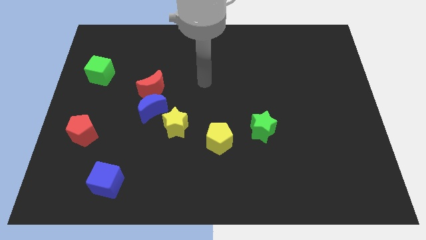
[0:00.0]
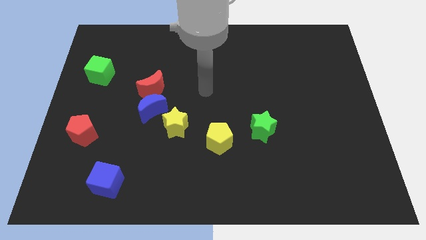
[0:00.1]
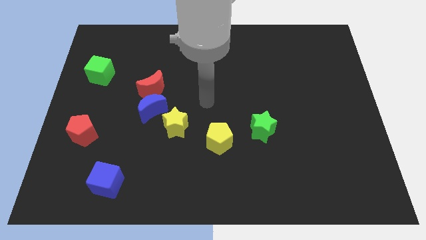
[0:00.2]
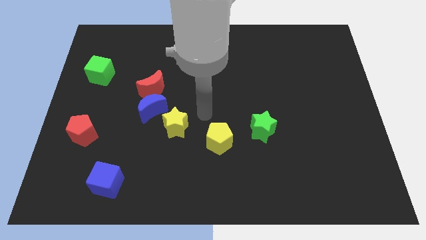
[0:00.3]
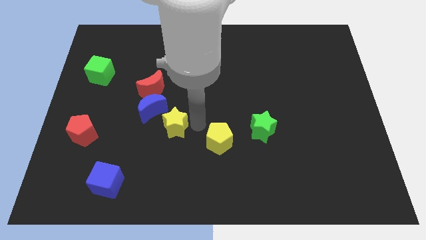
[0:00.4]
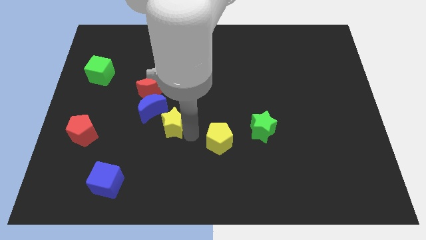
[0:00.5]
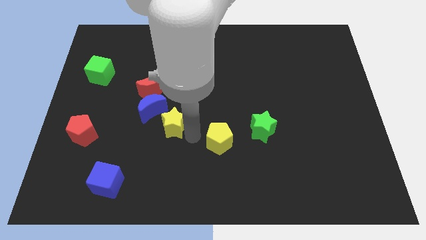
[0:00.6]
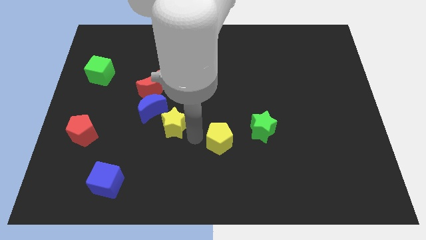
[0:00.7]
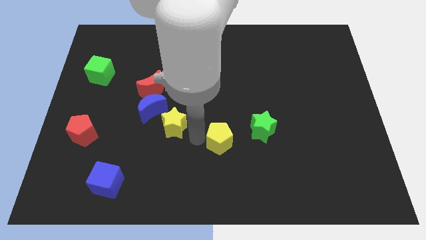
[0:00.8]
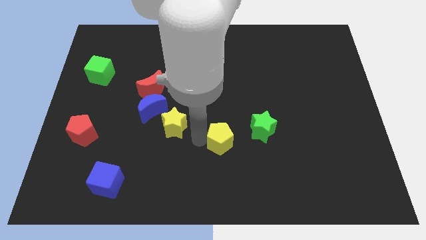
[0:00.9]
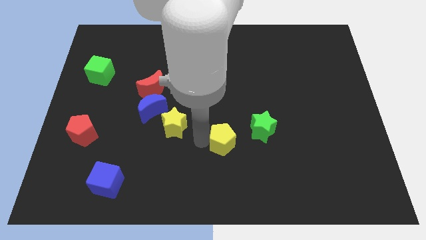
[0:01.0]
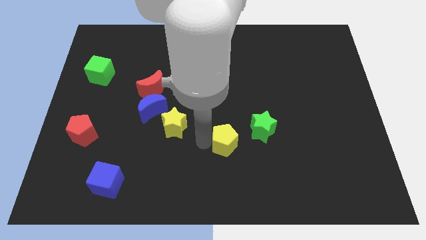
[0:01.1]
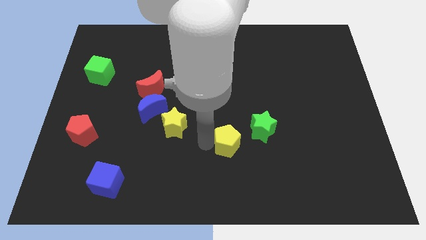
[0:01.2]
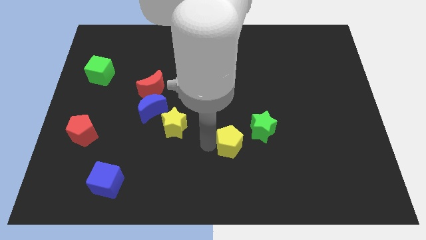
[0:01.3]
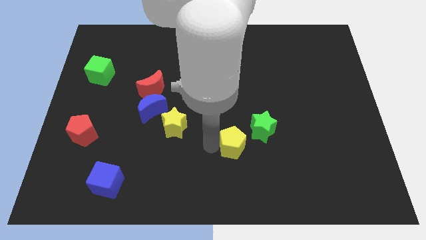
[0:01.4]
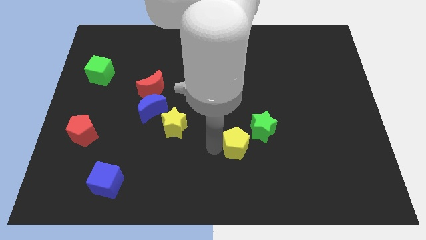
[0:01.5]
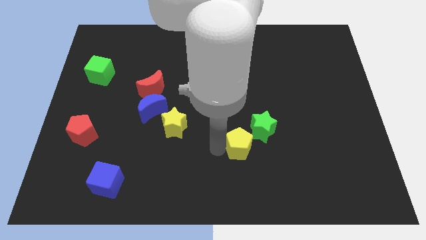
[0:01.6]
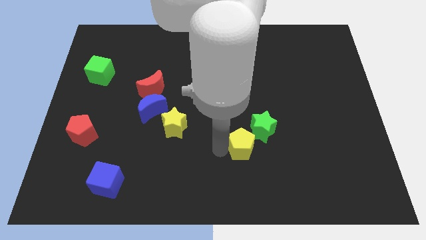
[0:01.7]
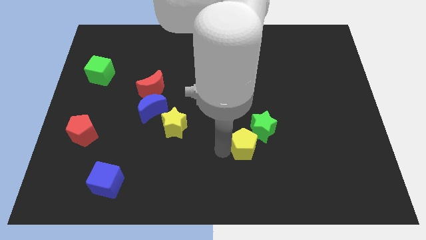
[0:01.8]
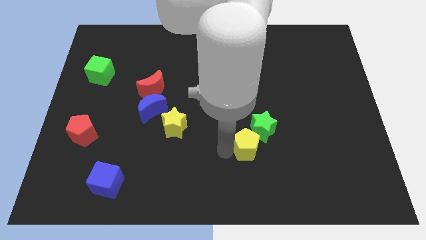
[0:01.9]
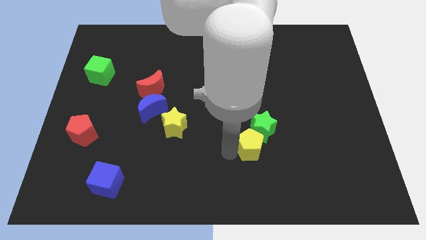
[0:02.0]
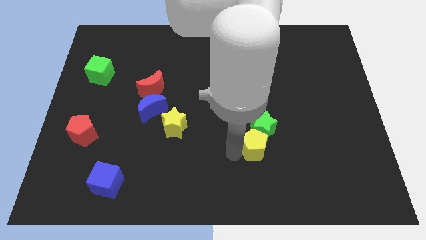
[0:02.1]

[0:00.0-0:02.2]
slightly move the yellow pentagon to the right

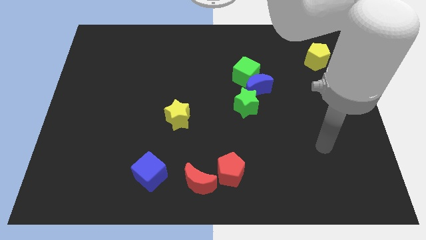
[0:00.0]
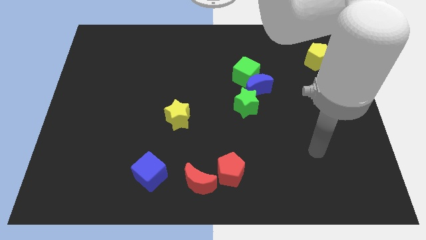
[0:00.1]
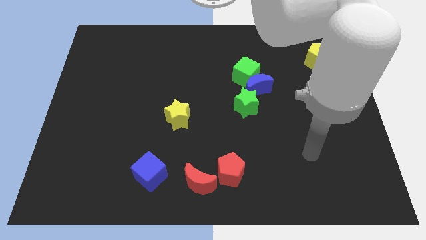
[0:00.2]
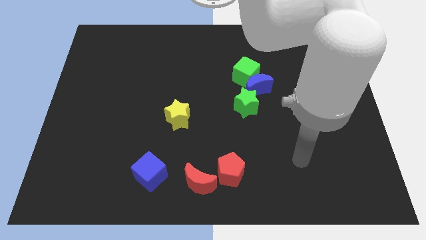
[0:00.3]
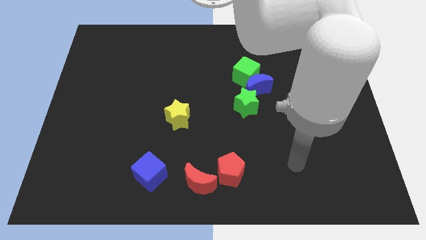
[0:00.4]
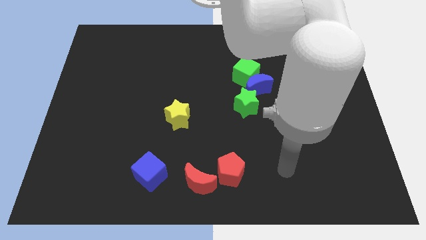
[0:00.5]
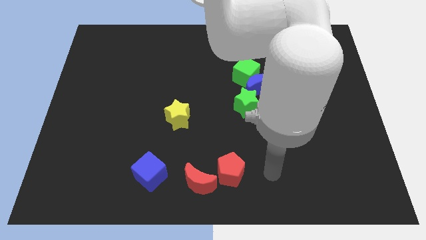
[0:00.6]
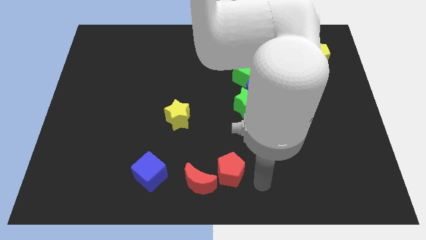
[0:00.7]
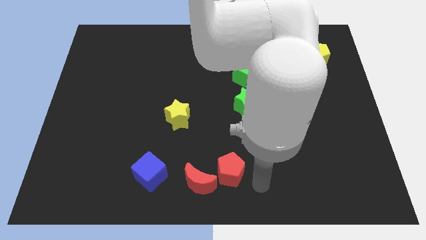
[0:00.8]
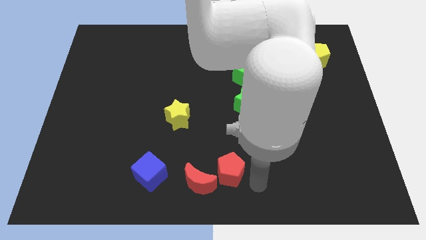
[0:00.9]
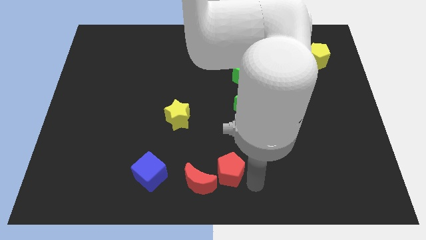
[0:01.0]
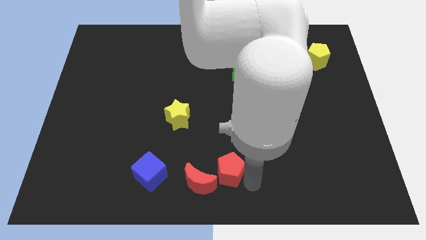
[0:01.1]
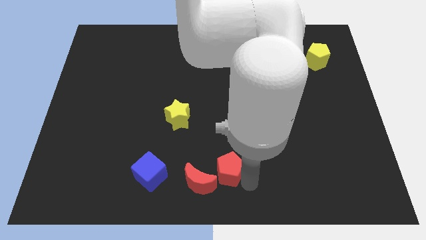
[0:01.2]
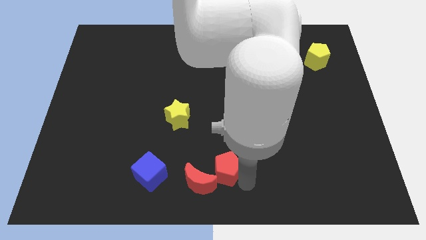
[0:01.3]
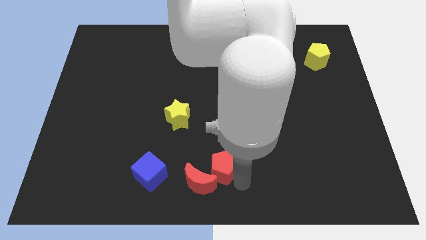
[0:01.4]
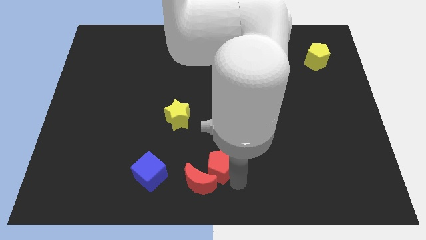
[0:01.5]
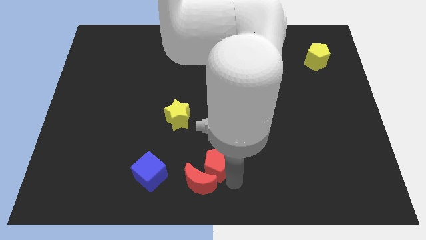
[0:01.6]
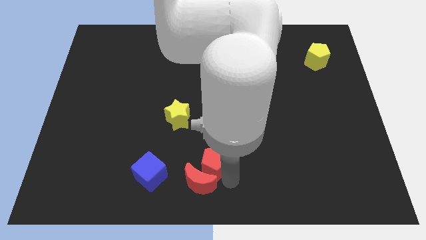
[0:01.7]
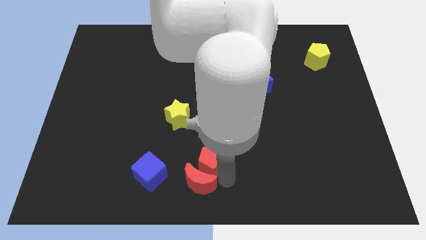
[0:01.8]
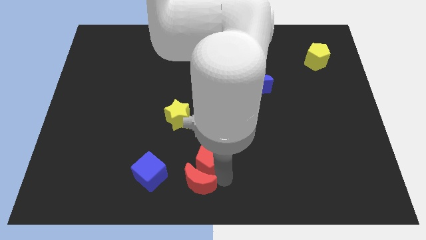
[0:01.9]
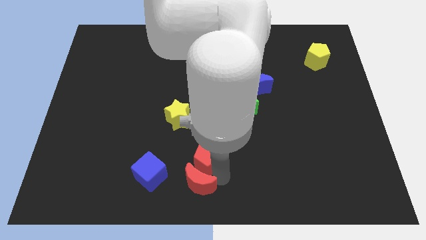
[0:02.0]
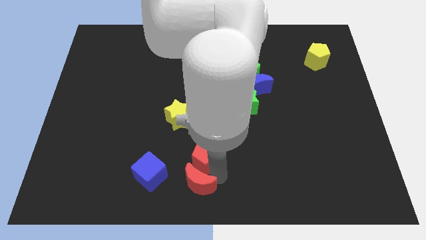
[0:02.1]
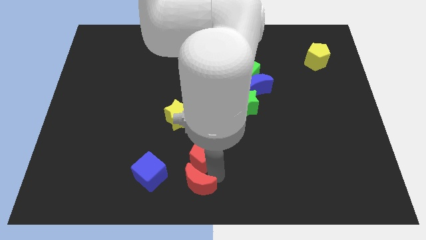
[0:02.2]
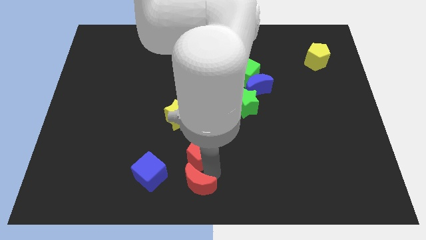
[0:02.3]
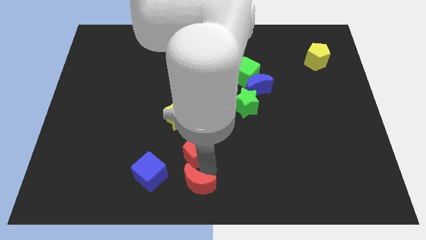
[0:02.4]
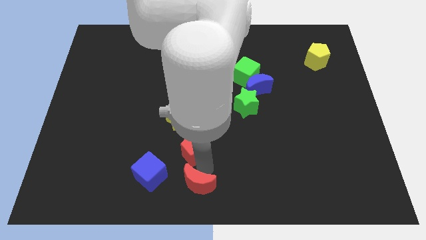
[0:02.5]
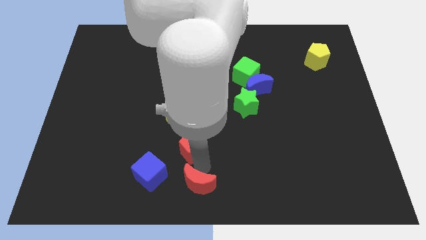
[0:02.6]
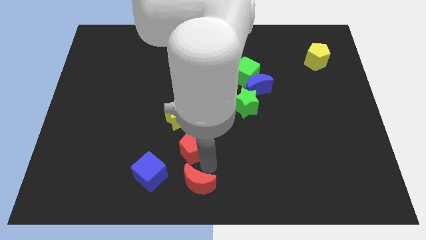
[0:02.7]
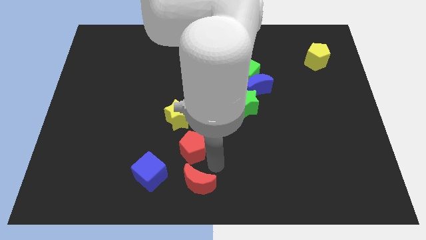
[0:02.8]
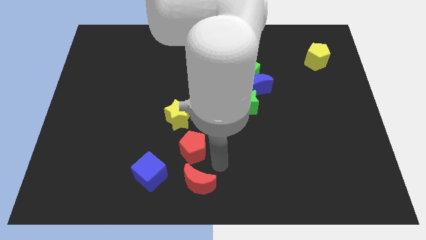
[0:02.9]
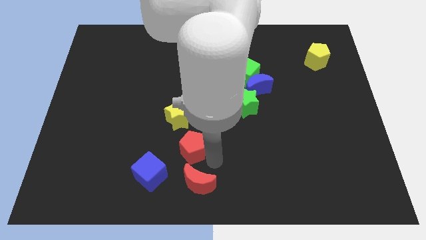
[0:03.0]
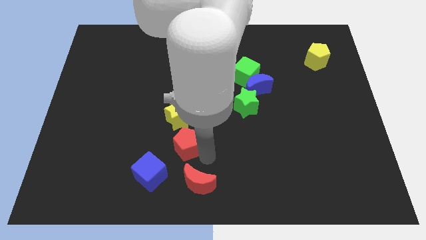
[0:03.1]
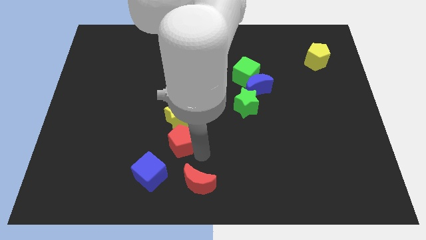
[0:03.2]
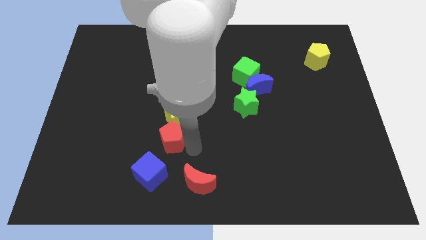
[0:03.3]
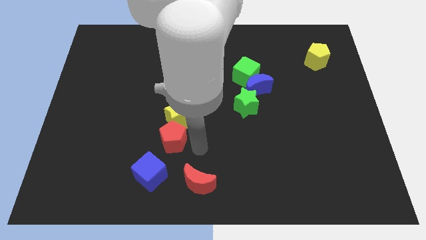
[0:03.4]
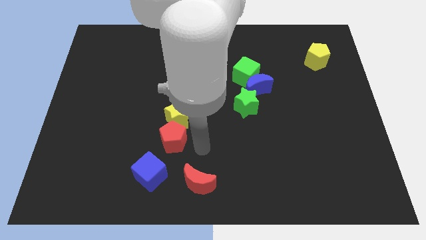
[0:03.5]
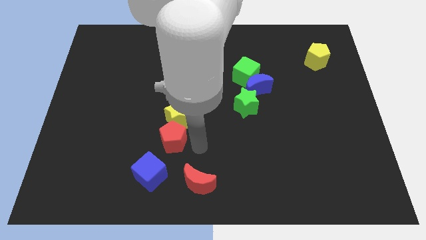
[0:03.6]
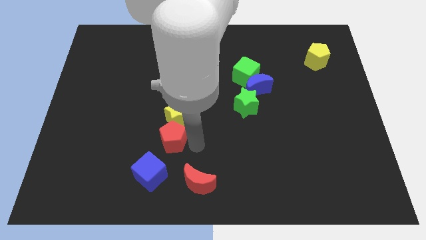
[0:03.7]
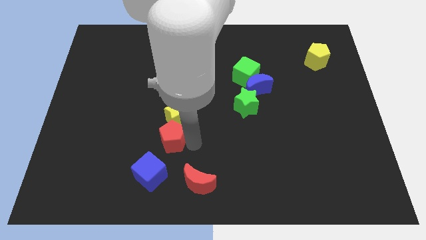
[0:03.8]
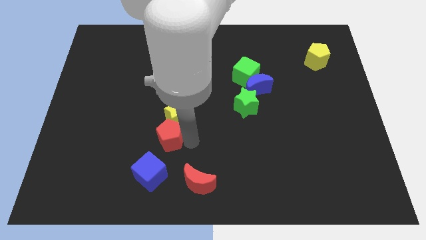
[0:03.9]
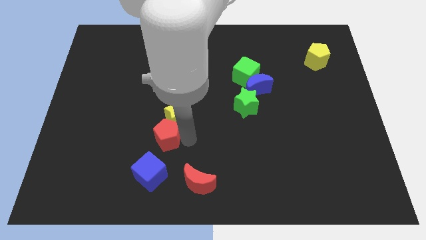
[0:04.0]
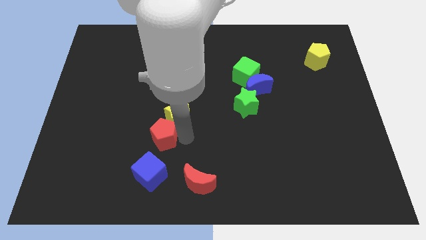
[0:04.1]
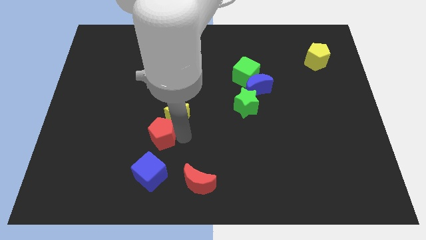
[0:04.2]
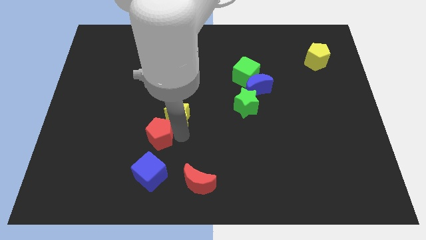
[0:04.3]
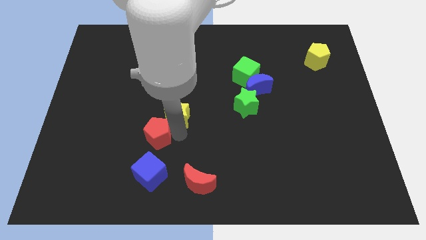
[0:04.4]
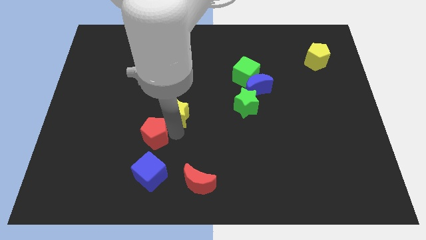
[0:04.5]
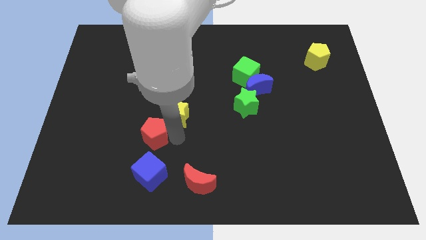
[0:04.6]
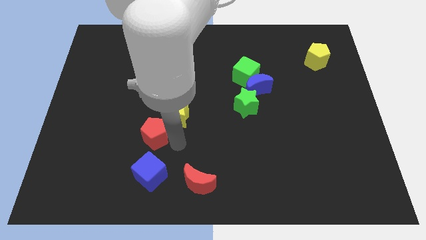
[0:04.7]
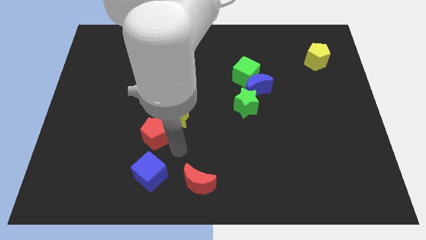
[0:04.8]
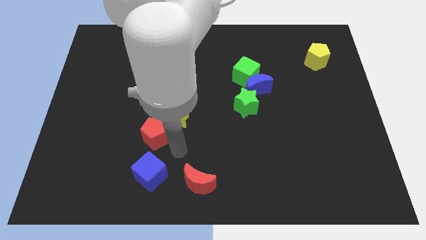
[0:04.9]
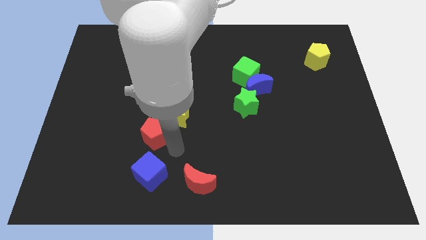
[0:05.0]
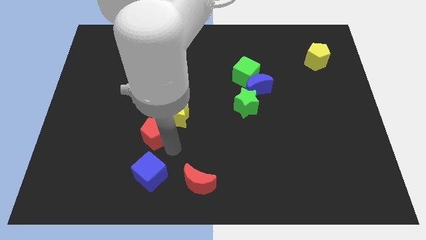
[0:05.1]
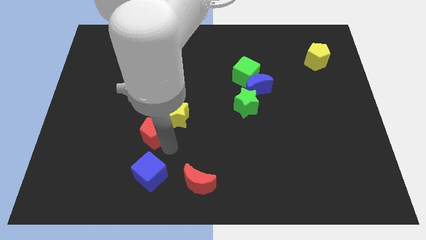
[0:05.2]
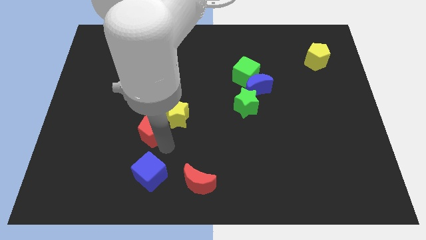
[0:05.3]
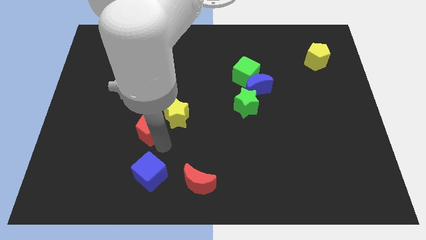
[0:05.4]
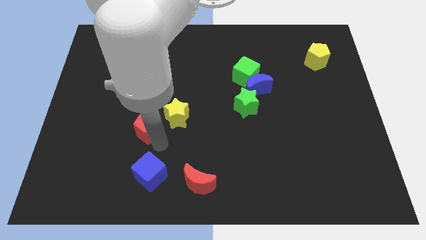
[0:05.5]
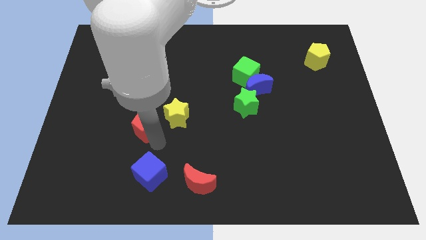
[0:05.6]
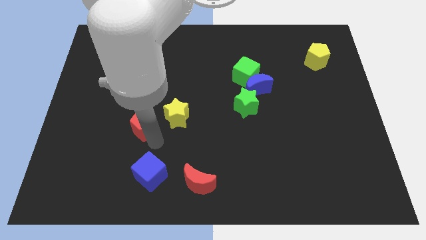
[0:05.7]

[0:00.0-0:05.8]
move the red pentagon up and left diagonally
